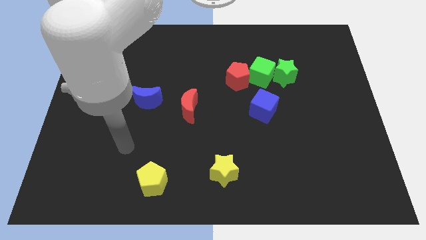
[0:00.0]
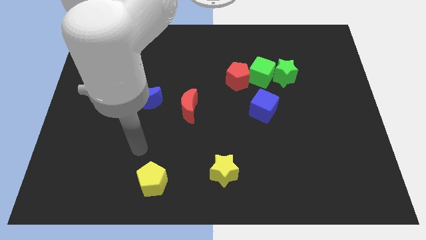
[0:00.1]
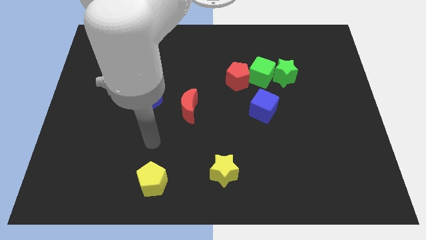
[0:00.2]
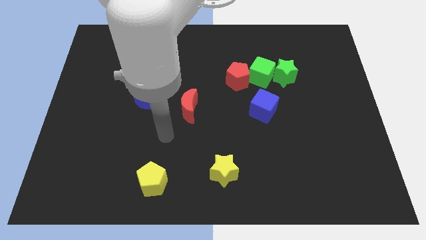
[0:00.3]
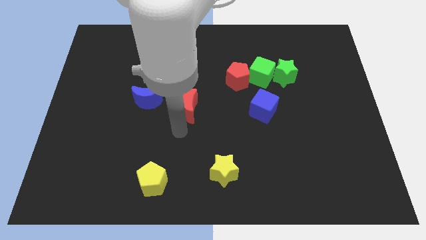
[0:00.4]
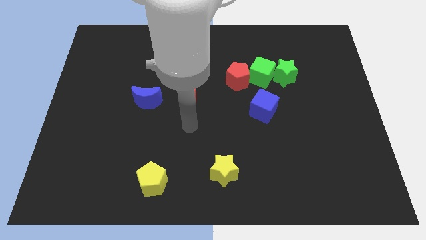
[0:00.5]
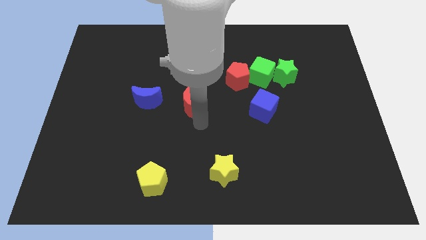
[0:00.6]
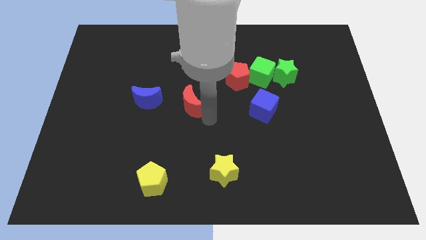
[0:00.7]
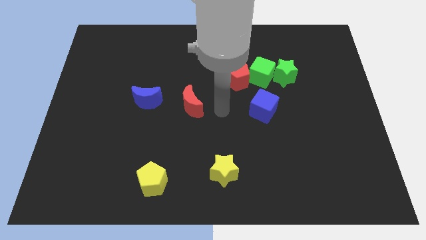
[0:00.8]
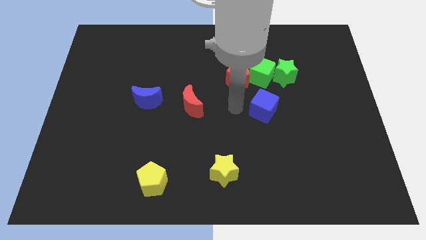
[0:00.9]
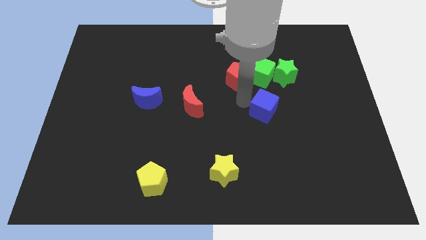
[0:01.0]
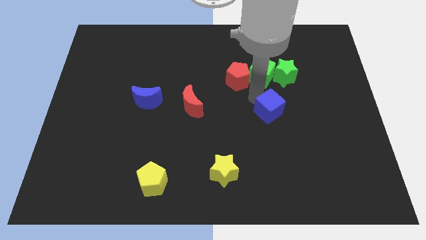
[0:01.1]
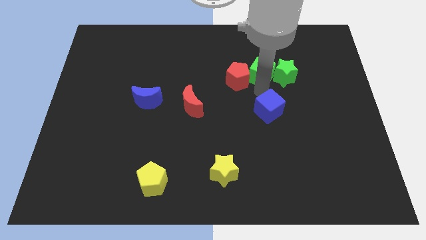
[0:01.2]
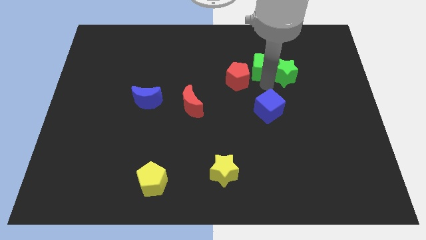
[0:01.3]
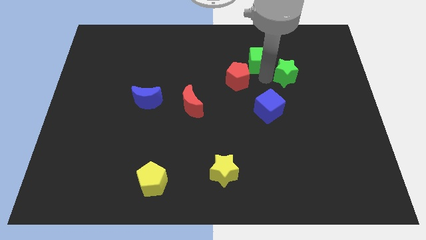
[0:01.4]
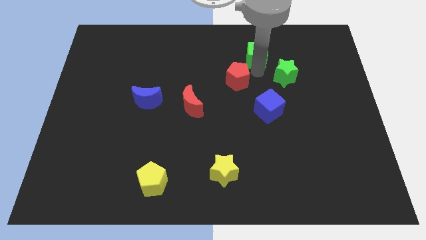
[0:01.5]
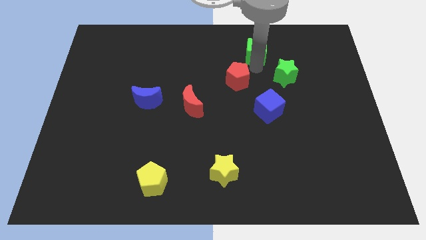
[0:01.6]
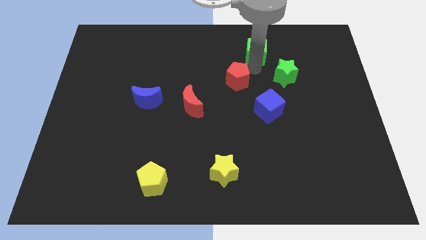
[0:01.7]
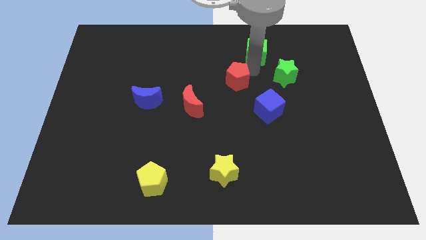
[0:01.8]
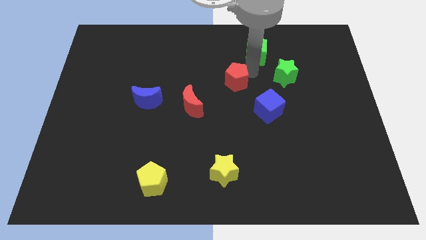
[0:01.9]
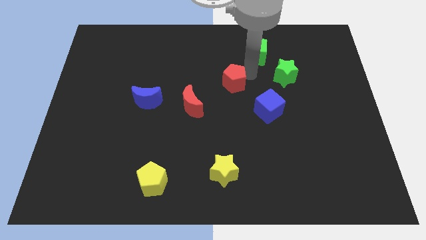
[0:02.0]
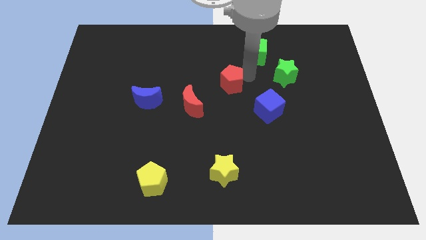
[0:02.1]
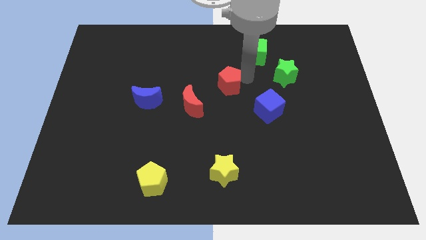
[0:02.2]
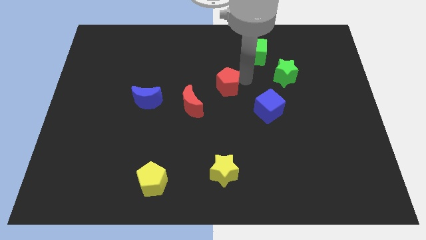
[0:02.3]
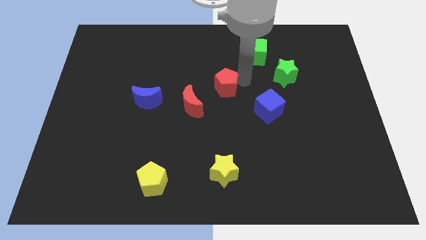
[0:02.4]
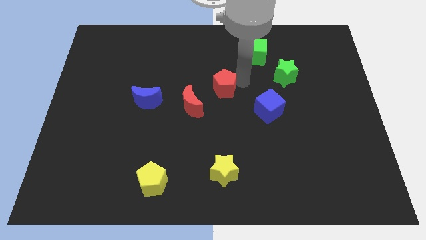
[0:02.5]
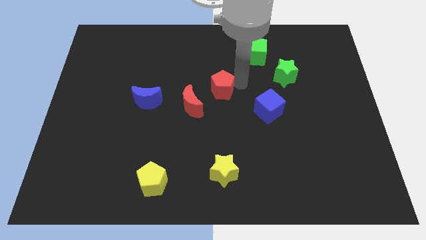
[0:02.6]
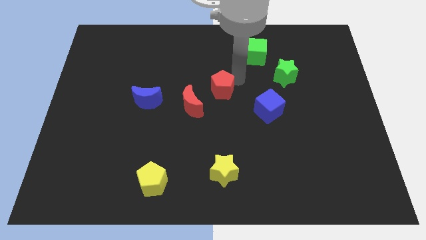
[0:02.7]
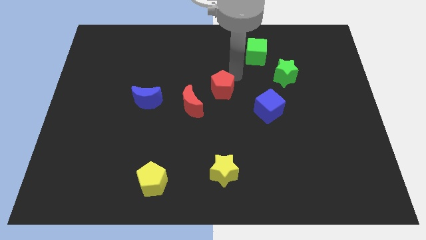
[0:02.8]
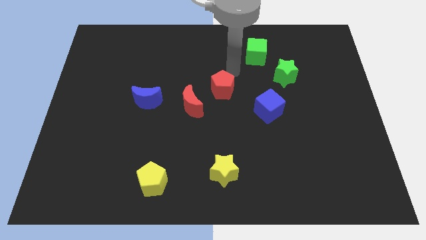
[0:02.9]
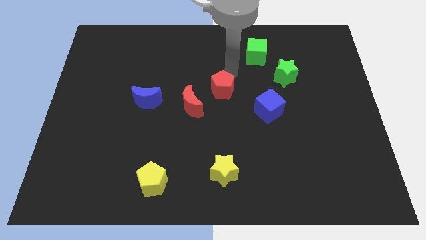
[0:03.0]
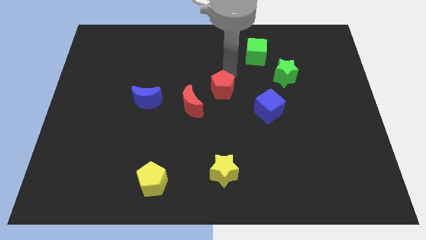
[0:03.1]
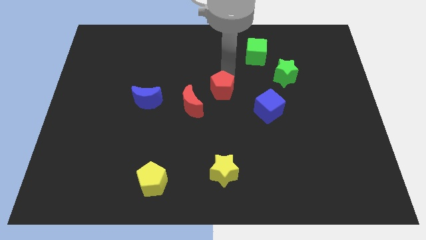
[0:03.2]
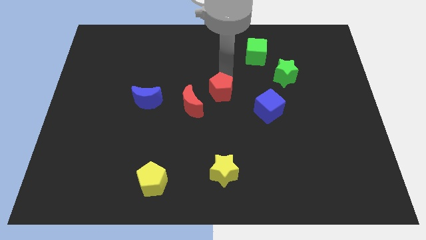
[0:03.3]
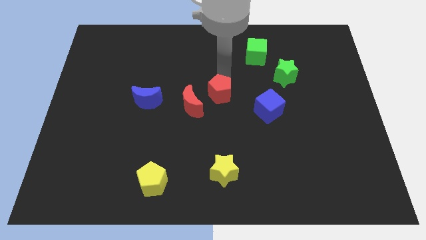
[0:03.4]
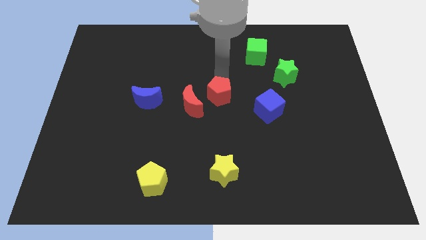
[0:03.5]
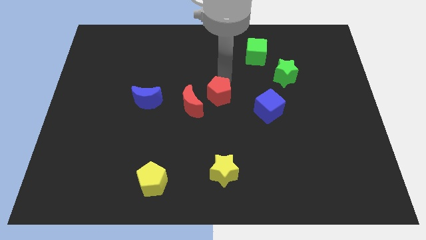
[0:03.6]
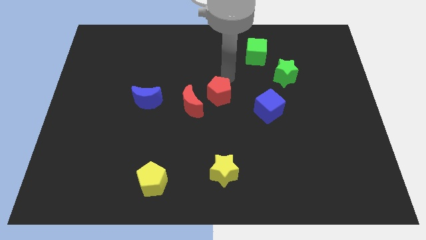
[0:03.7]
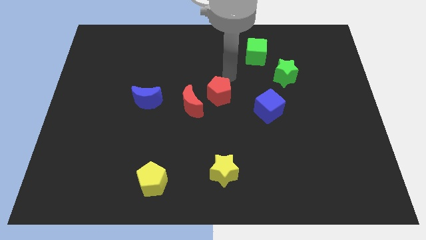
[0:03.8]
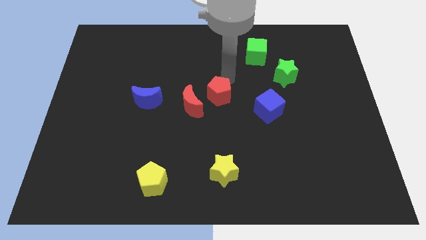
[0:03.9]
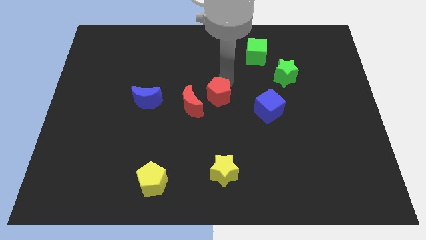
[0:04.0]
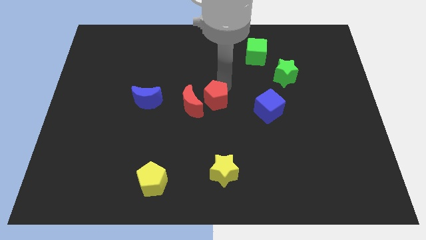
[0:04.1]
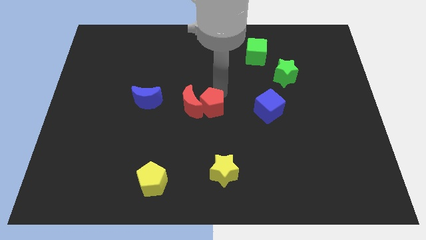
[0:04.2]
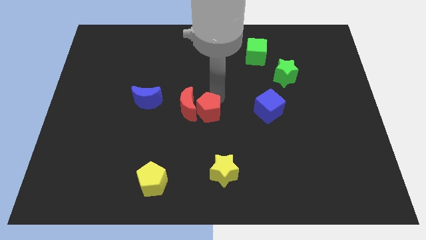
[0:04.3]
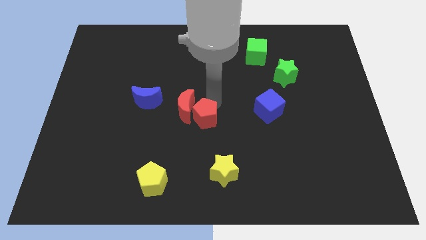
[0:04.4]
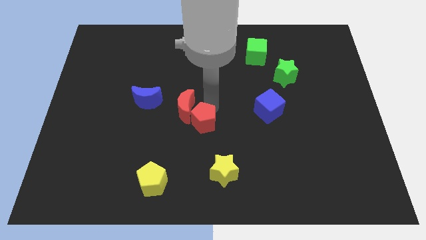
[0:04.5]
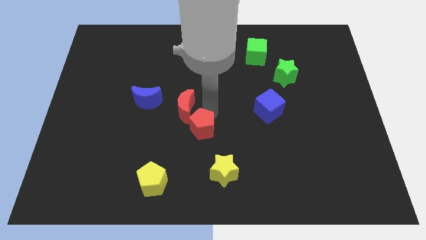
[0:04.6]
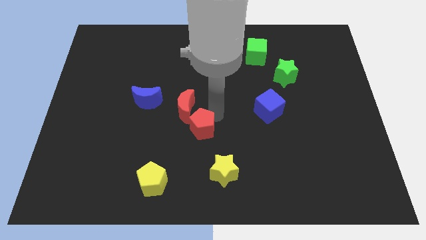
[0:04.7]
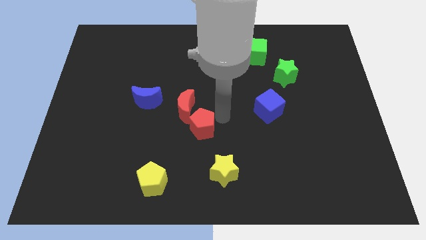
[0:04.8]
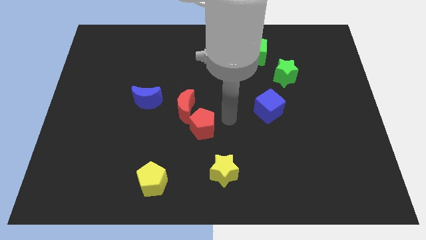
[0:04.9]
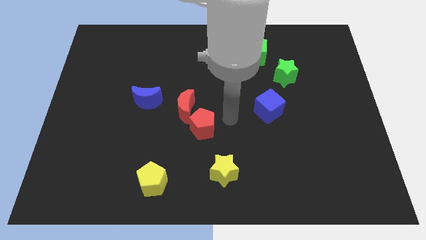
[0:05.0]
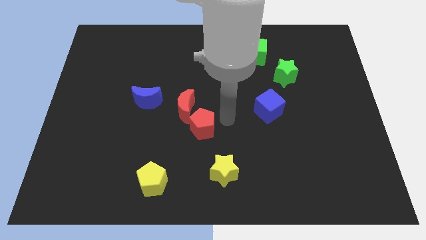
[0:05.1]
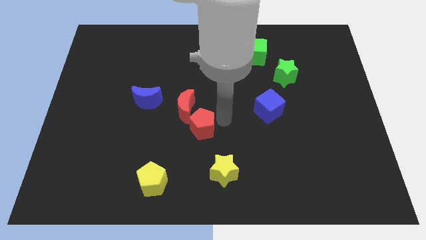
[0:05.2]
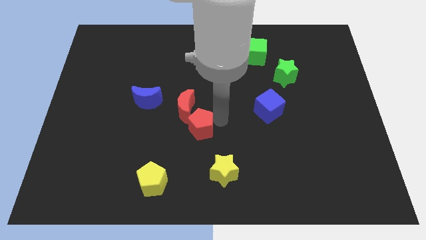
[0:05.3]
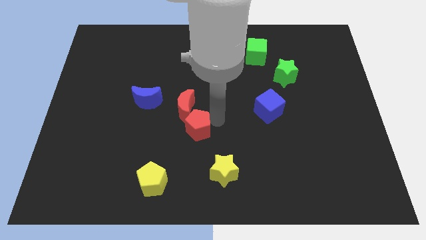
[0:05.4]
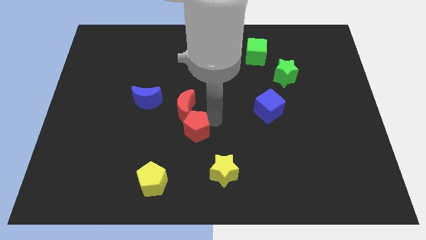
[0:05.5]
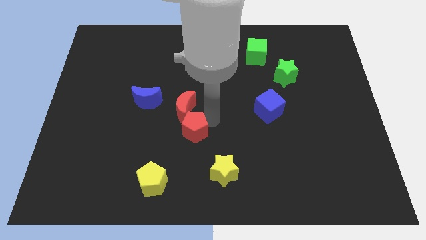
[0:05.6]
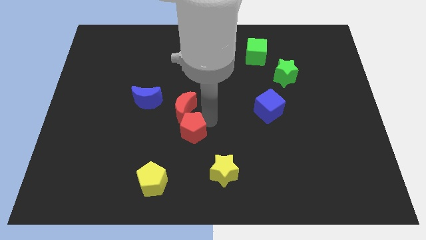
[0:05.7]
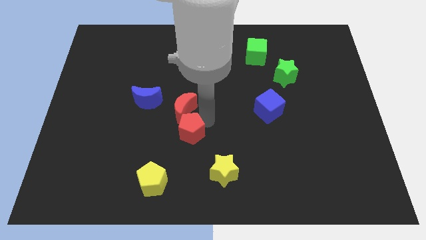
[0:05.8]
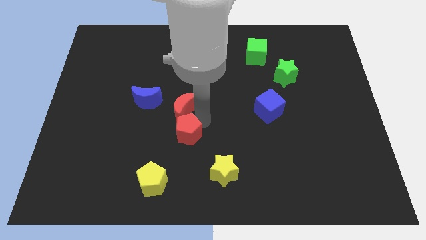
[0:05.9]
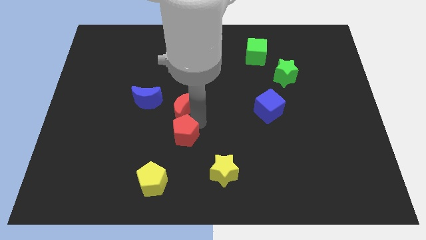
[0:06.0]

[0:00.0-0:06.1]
move the red pentagon downwards and then left

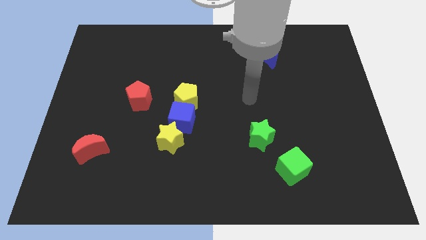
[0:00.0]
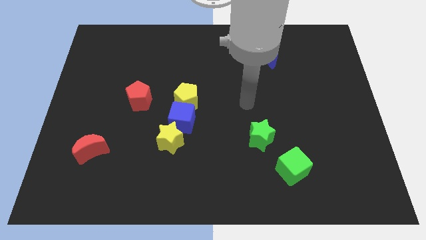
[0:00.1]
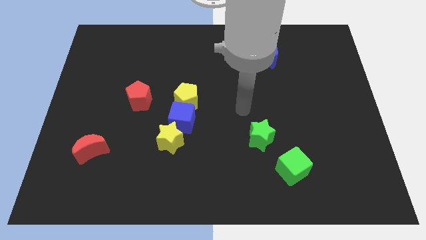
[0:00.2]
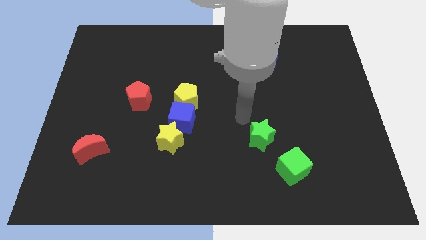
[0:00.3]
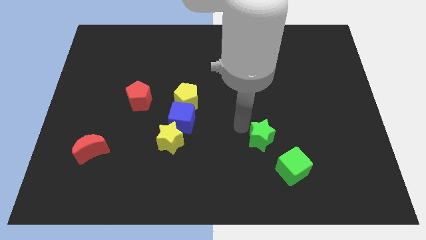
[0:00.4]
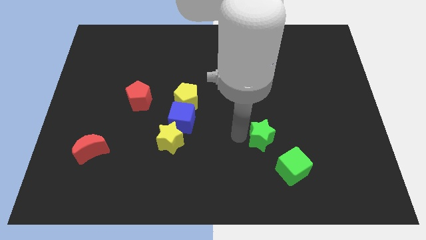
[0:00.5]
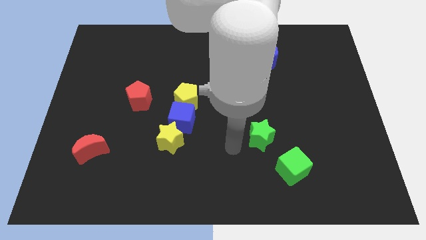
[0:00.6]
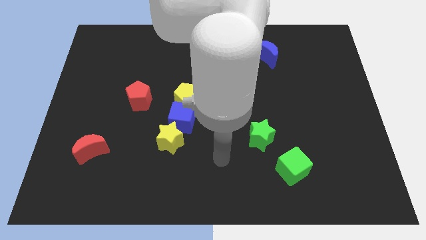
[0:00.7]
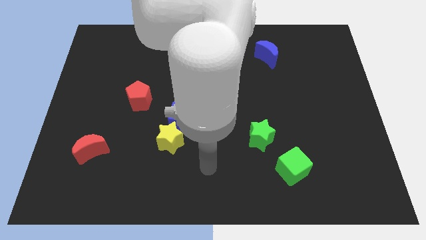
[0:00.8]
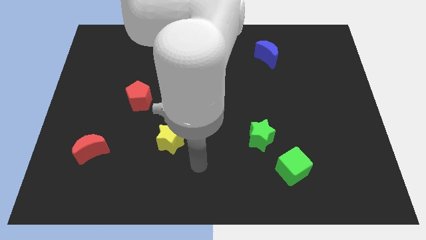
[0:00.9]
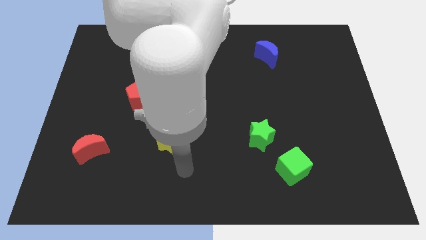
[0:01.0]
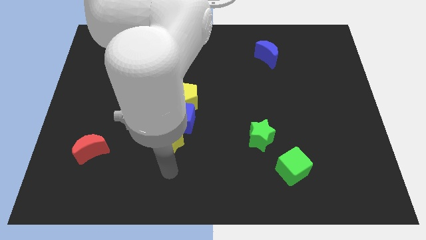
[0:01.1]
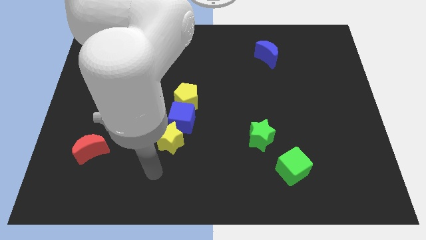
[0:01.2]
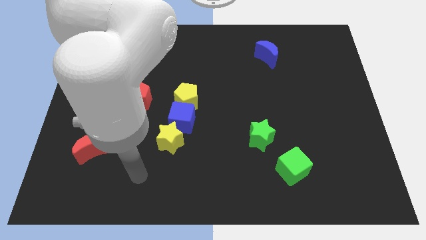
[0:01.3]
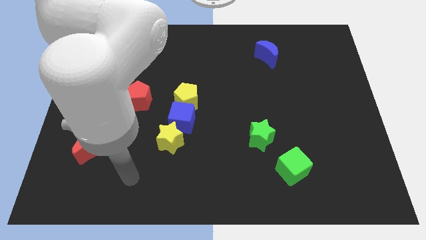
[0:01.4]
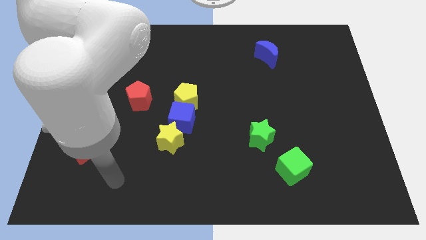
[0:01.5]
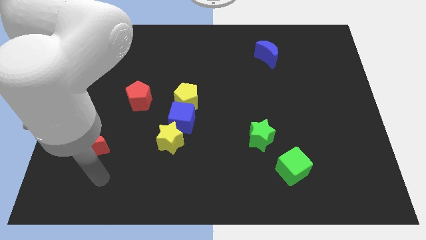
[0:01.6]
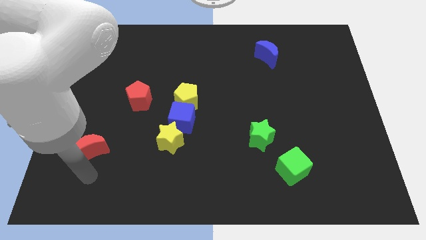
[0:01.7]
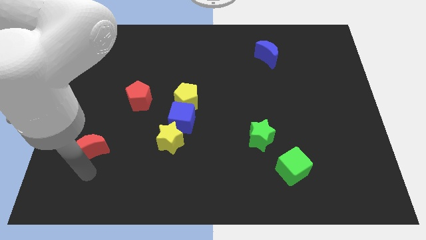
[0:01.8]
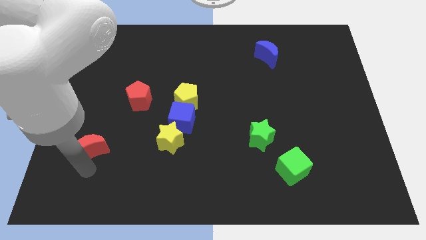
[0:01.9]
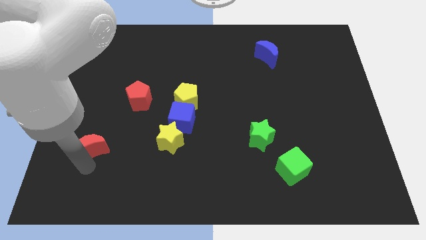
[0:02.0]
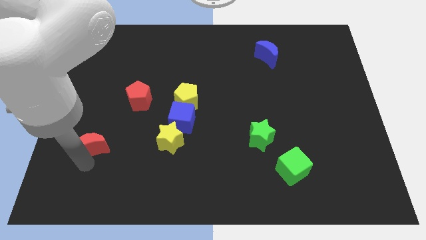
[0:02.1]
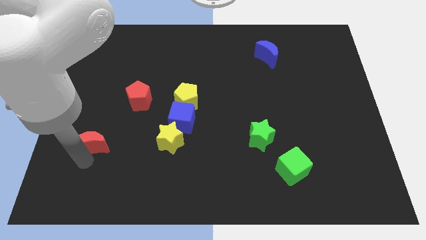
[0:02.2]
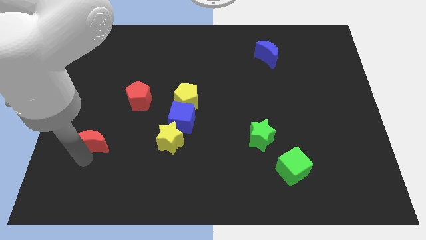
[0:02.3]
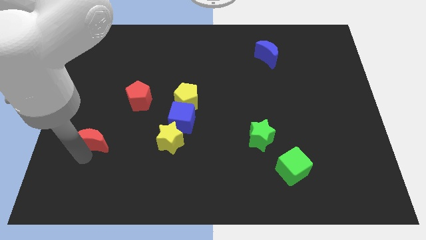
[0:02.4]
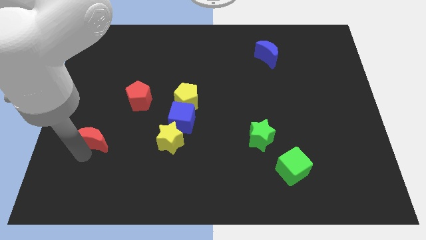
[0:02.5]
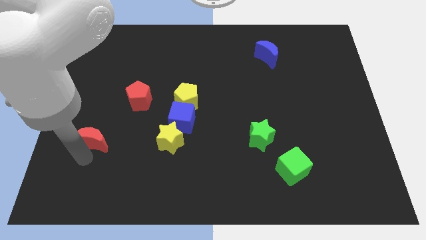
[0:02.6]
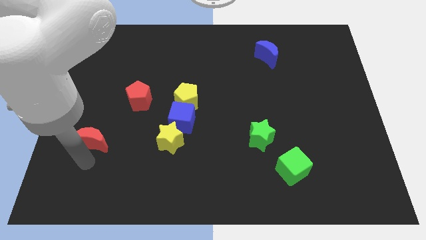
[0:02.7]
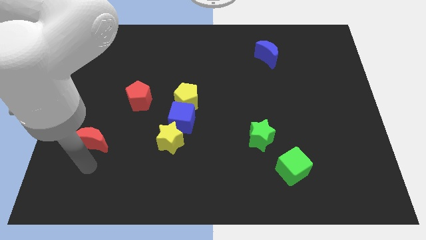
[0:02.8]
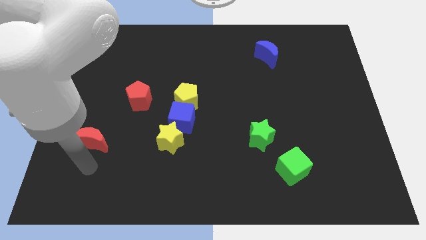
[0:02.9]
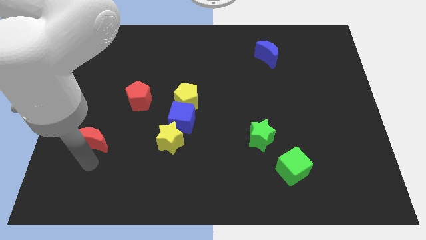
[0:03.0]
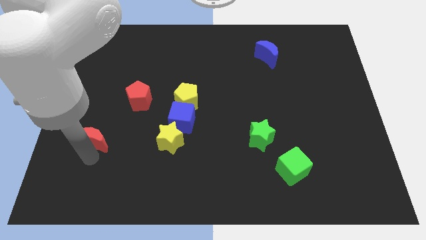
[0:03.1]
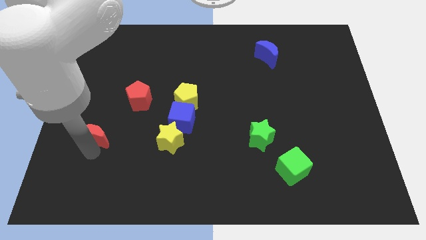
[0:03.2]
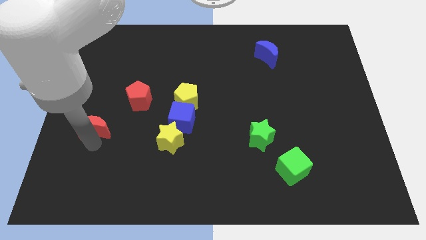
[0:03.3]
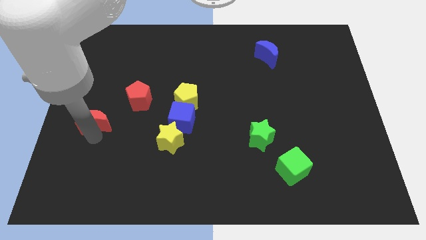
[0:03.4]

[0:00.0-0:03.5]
move the red moon a bit up
